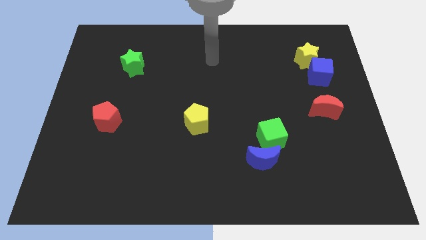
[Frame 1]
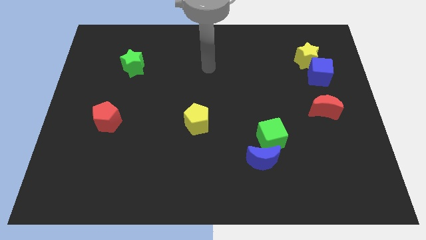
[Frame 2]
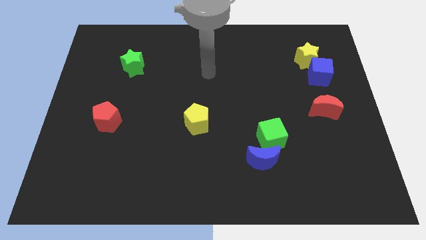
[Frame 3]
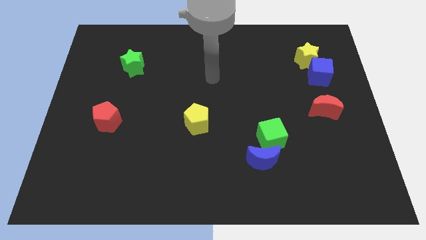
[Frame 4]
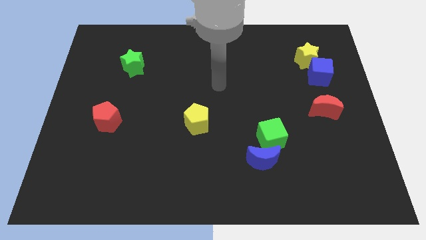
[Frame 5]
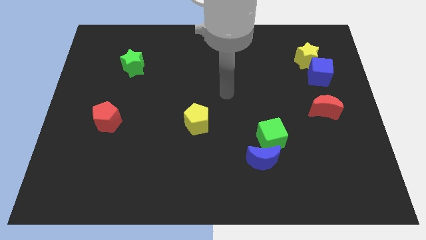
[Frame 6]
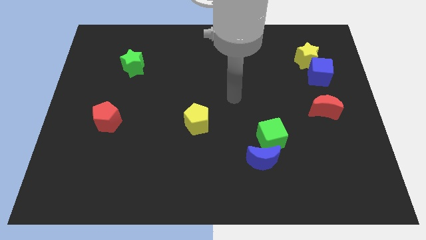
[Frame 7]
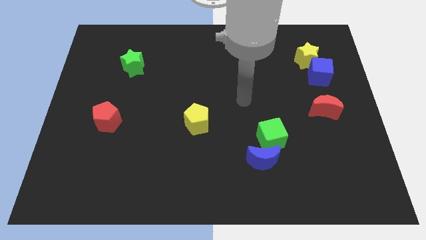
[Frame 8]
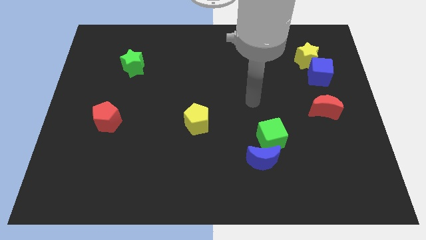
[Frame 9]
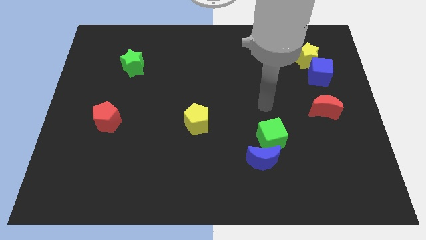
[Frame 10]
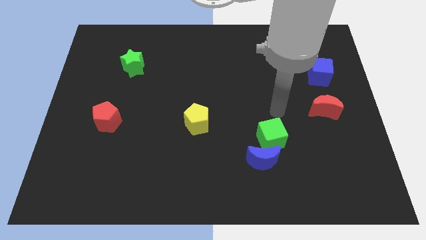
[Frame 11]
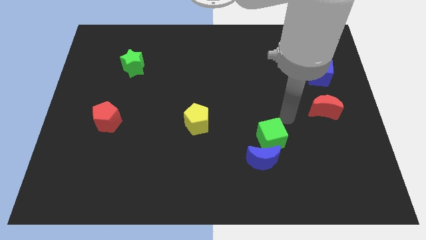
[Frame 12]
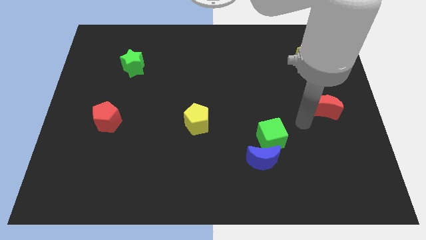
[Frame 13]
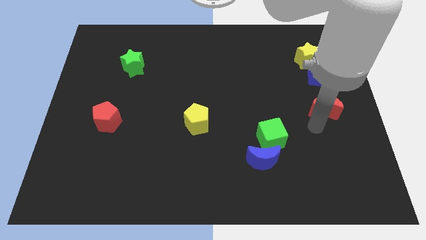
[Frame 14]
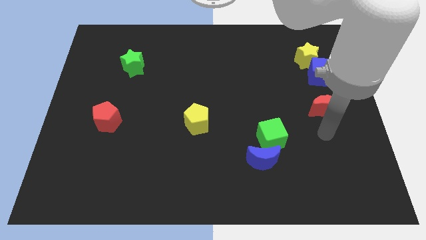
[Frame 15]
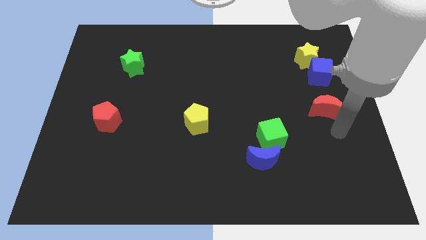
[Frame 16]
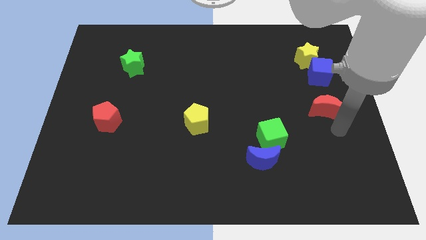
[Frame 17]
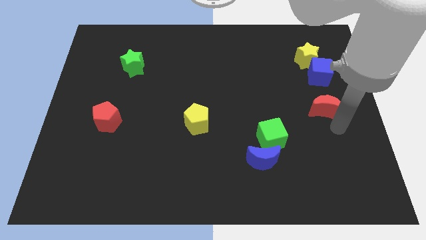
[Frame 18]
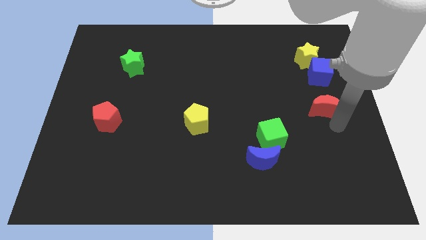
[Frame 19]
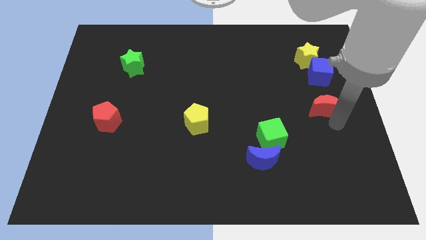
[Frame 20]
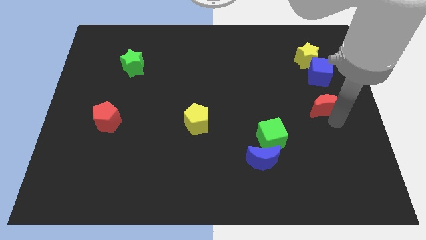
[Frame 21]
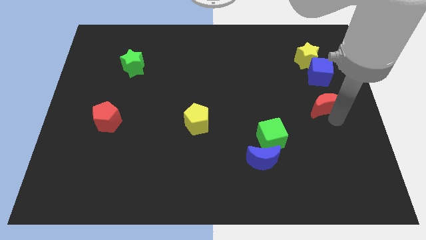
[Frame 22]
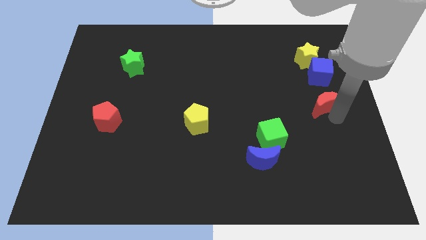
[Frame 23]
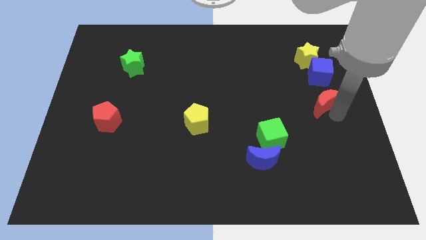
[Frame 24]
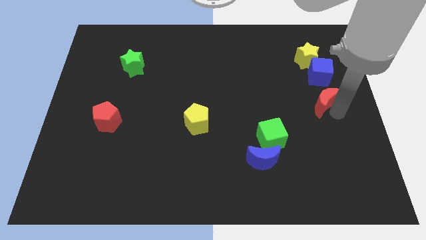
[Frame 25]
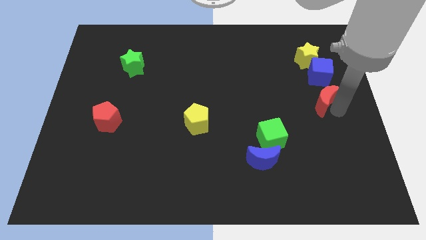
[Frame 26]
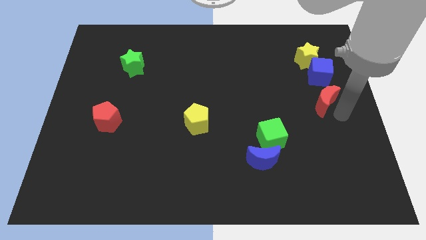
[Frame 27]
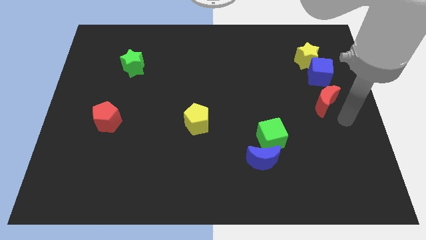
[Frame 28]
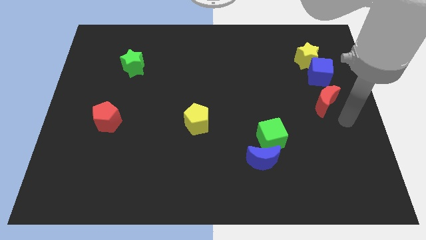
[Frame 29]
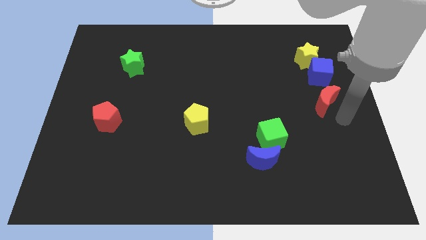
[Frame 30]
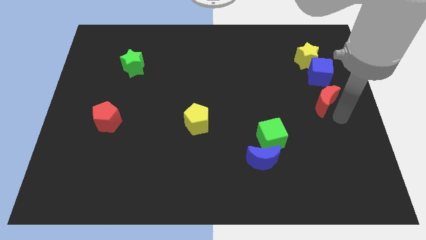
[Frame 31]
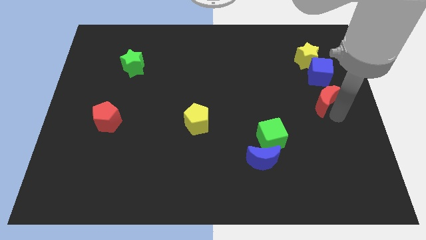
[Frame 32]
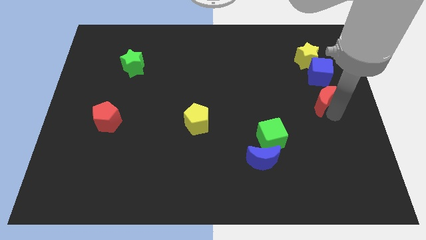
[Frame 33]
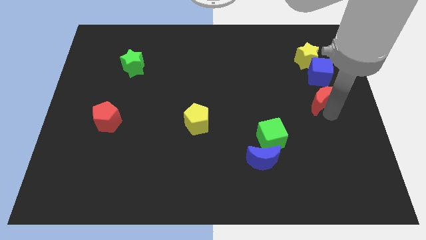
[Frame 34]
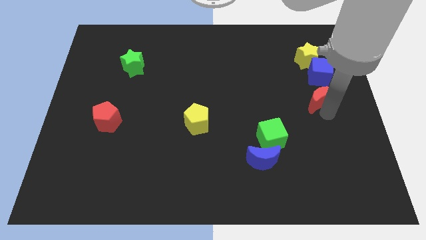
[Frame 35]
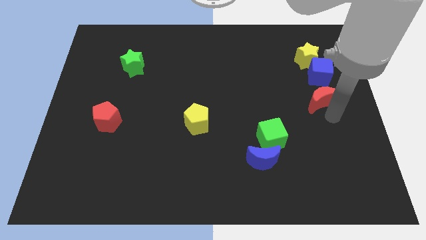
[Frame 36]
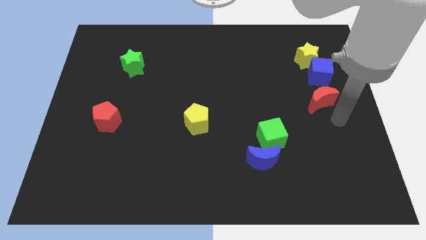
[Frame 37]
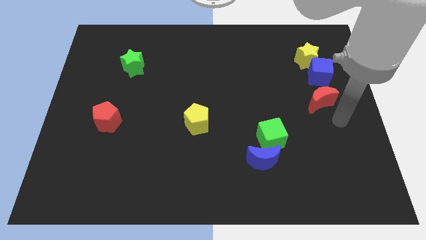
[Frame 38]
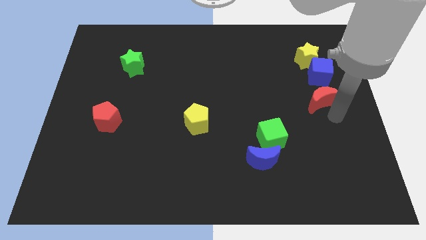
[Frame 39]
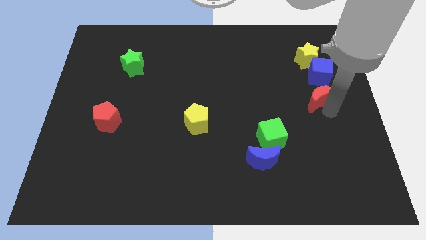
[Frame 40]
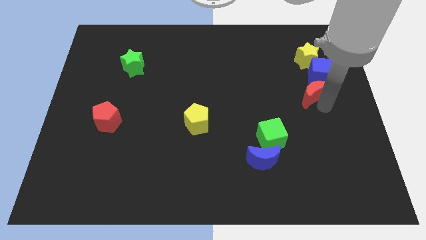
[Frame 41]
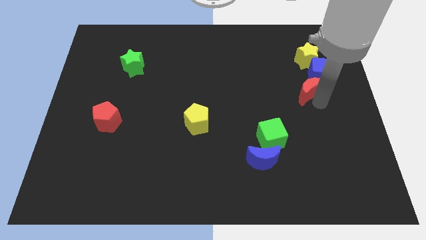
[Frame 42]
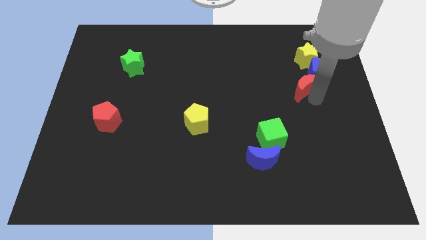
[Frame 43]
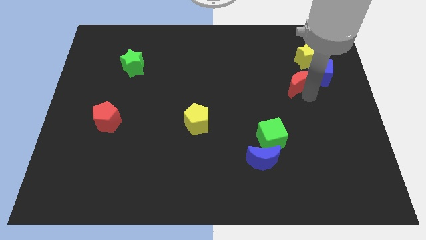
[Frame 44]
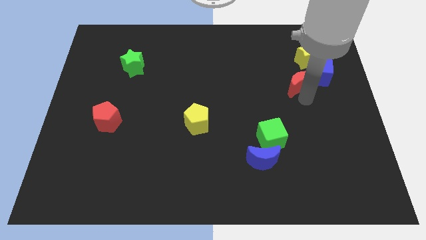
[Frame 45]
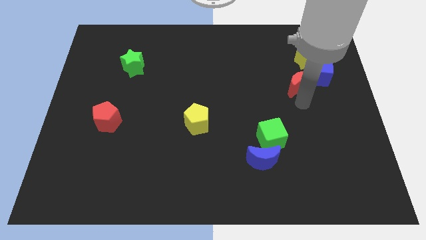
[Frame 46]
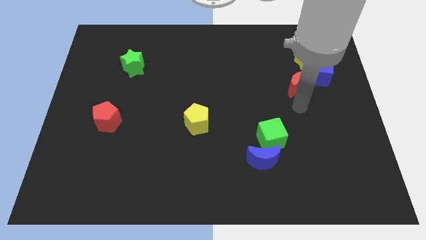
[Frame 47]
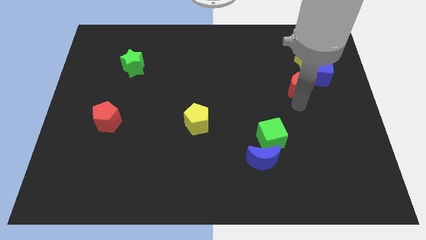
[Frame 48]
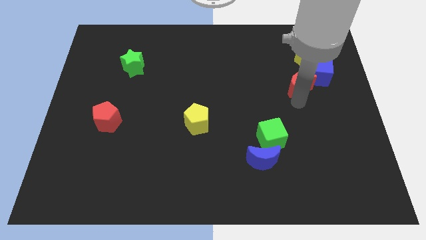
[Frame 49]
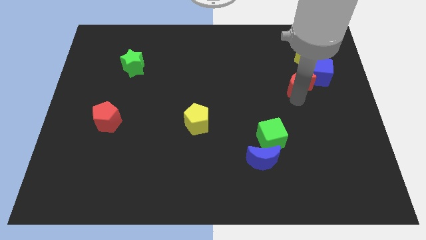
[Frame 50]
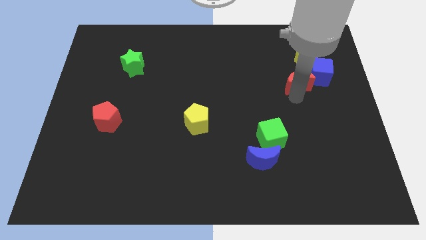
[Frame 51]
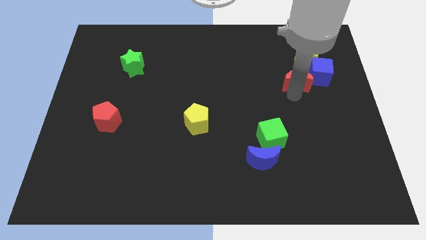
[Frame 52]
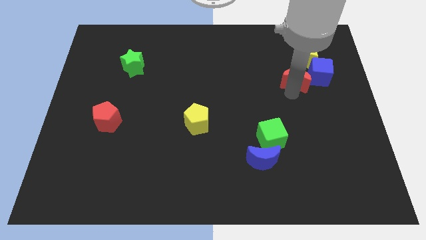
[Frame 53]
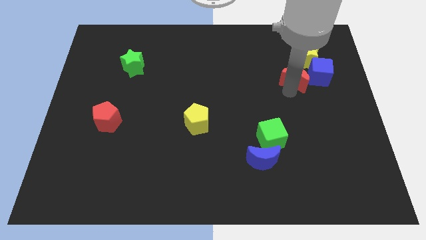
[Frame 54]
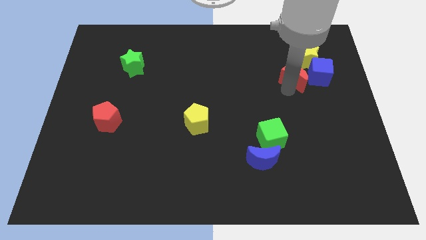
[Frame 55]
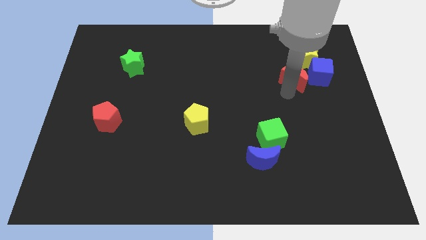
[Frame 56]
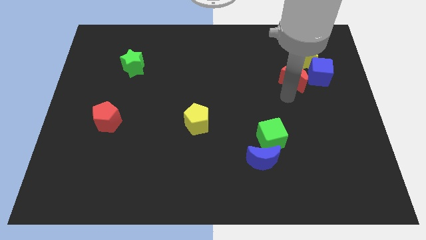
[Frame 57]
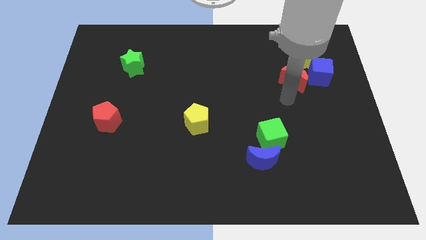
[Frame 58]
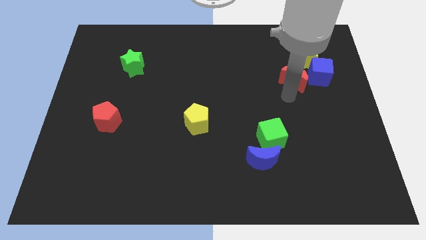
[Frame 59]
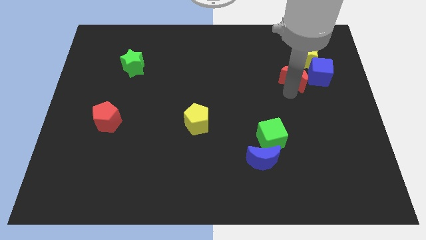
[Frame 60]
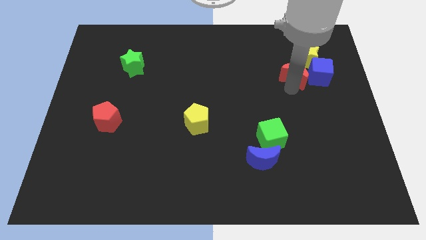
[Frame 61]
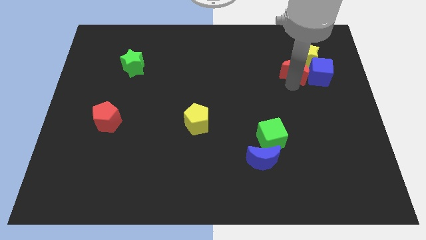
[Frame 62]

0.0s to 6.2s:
move the red moon next to the yellow star
